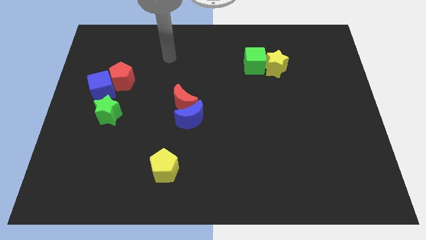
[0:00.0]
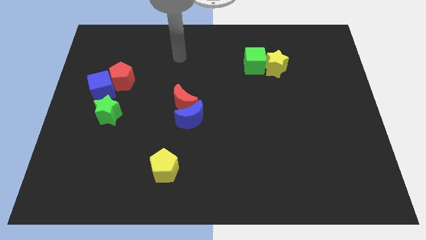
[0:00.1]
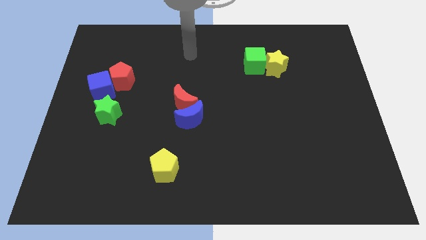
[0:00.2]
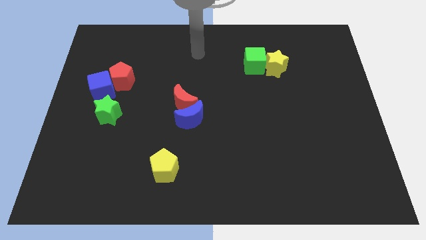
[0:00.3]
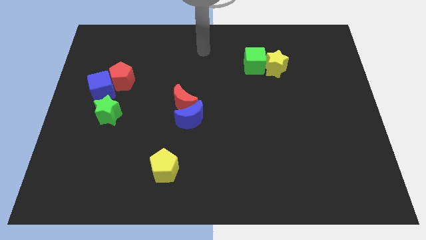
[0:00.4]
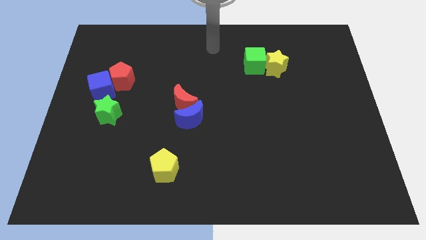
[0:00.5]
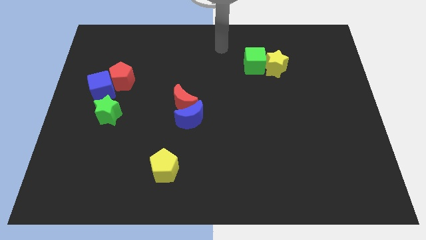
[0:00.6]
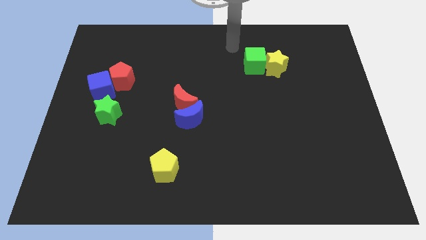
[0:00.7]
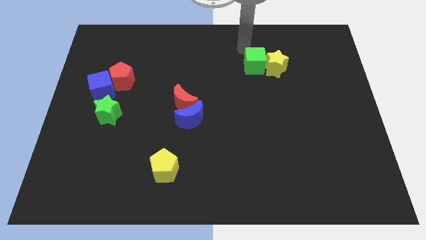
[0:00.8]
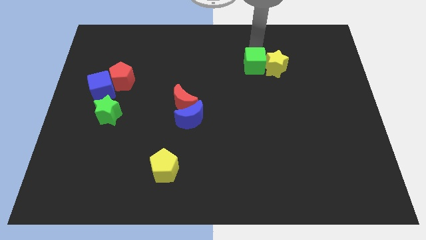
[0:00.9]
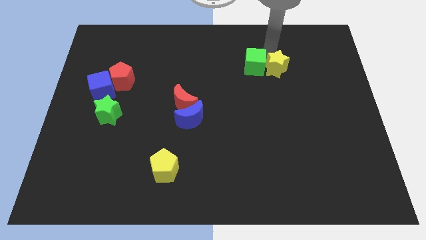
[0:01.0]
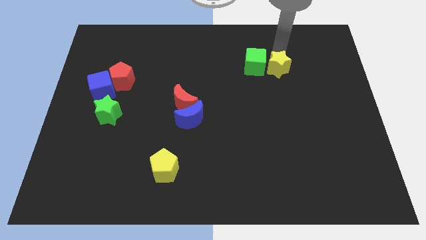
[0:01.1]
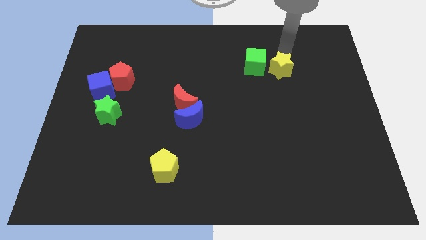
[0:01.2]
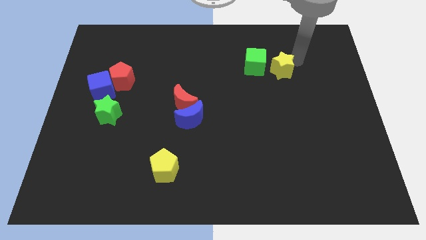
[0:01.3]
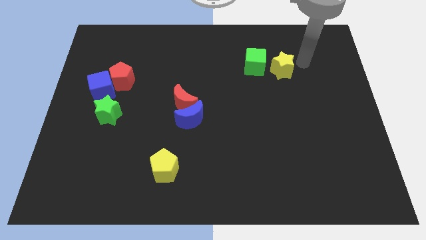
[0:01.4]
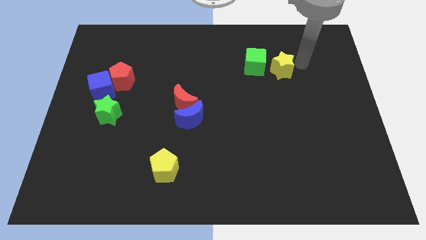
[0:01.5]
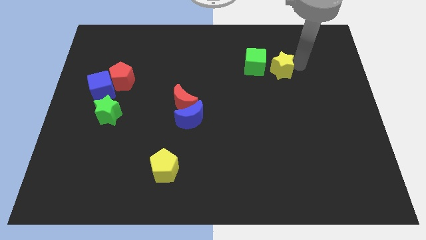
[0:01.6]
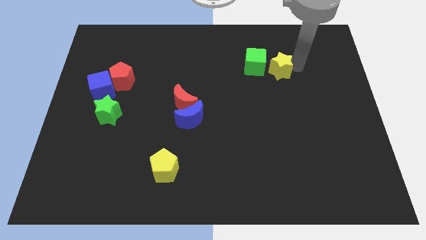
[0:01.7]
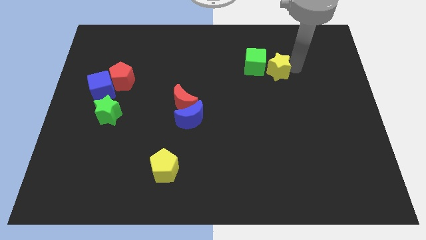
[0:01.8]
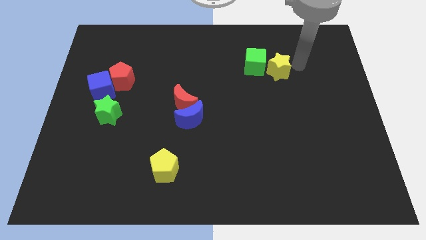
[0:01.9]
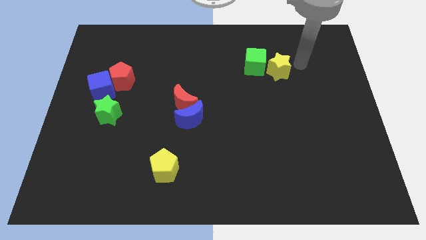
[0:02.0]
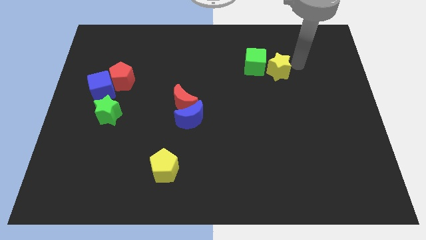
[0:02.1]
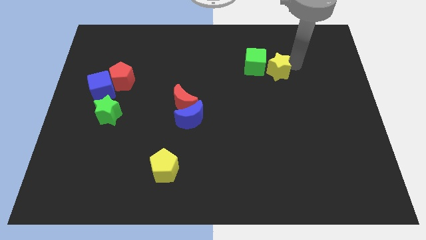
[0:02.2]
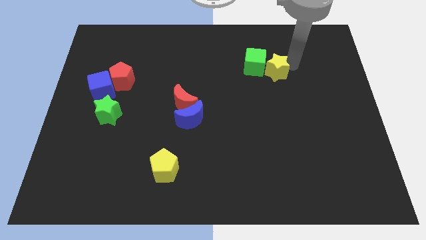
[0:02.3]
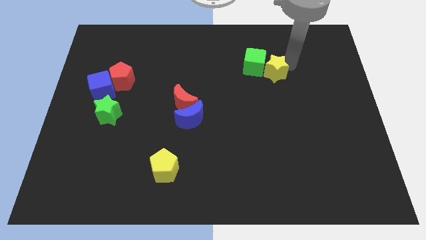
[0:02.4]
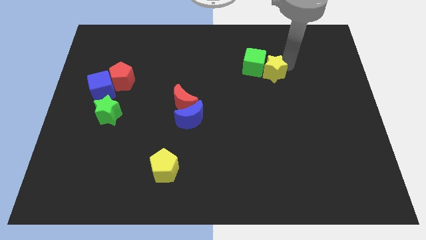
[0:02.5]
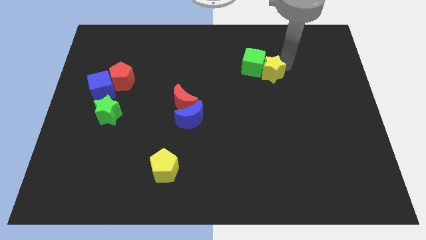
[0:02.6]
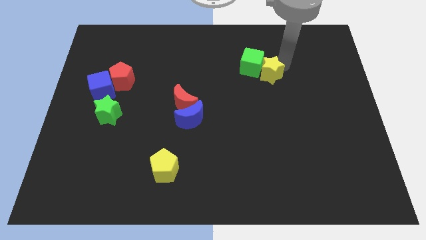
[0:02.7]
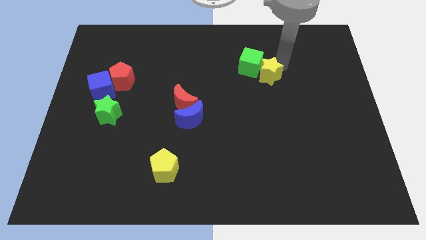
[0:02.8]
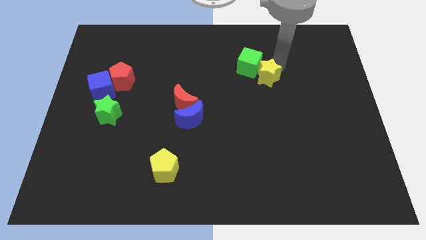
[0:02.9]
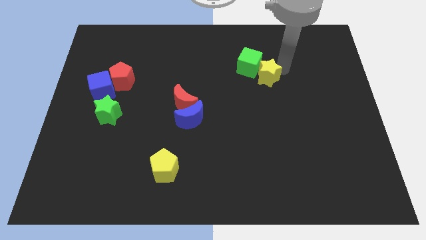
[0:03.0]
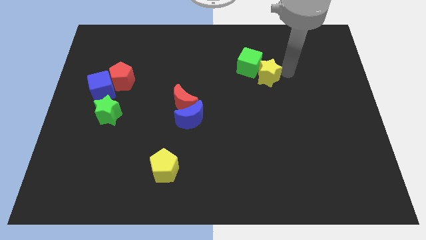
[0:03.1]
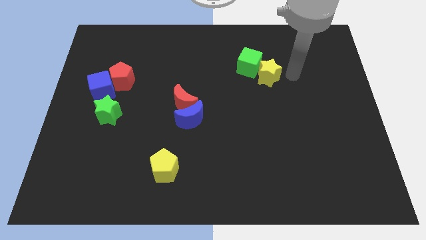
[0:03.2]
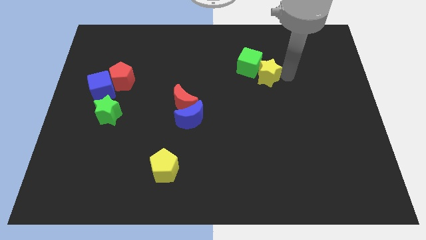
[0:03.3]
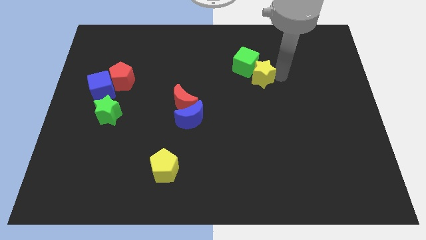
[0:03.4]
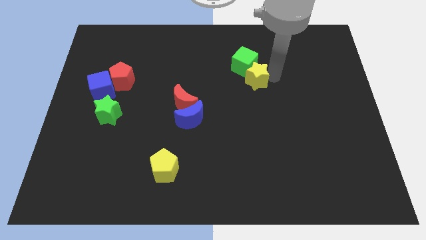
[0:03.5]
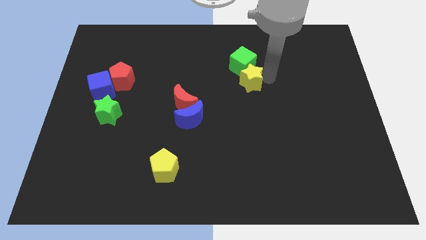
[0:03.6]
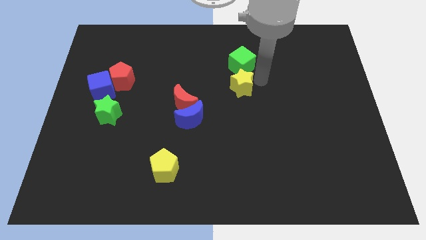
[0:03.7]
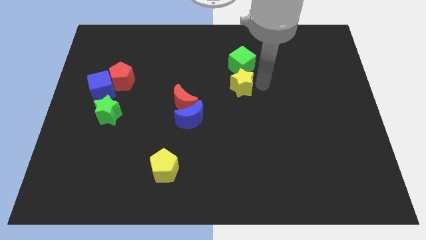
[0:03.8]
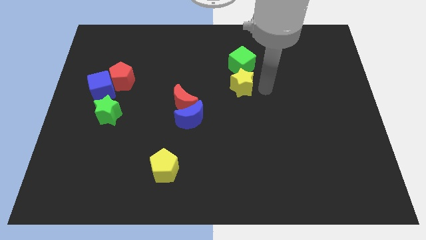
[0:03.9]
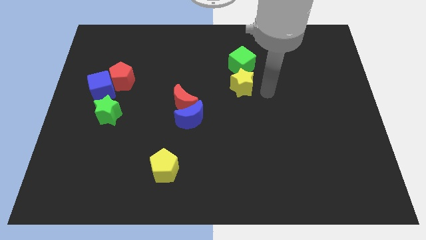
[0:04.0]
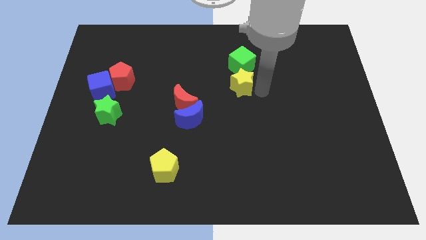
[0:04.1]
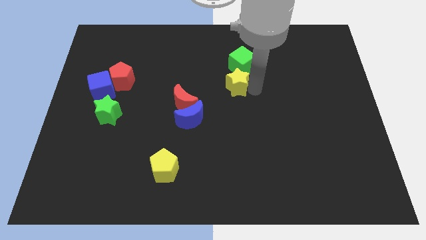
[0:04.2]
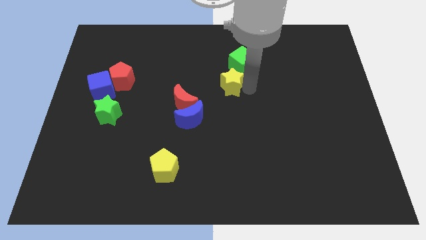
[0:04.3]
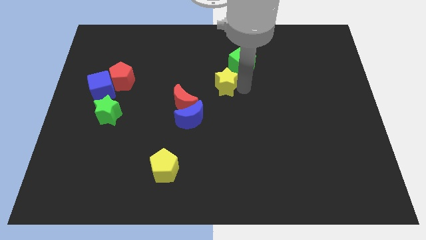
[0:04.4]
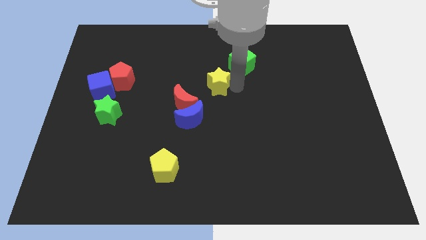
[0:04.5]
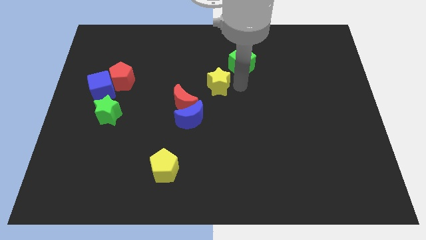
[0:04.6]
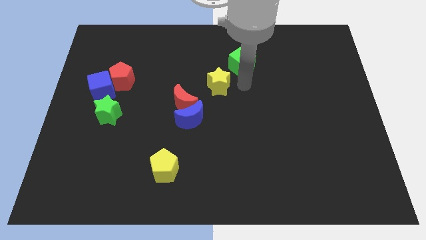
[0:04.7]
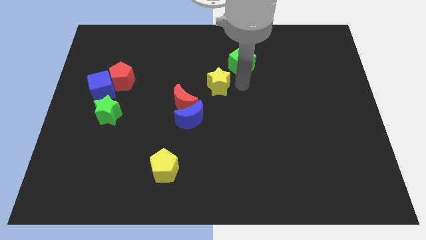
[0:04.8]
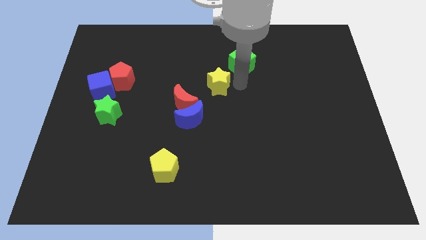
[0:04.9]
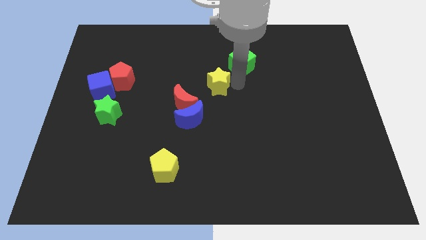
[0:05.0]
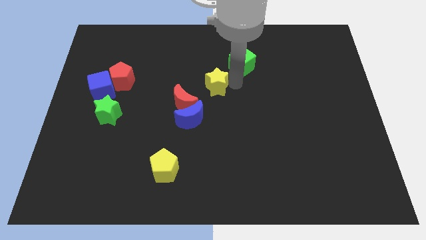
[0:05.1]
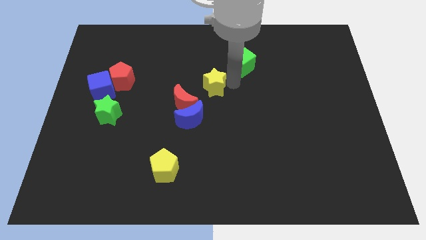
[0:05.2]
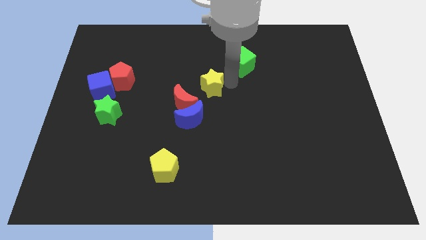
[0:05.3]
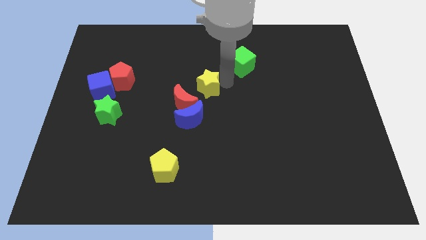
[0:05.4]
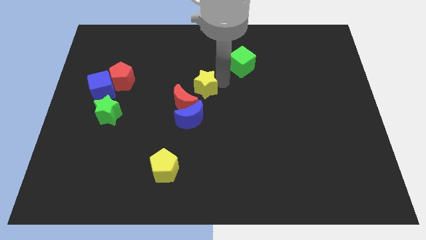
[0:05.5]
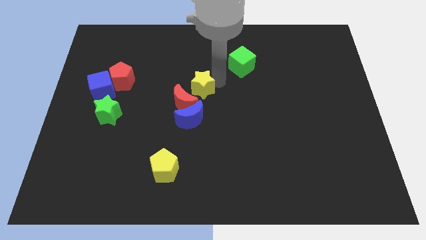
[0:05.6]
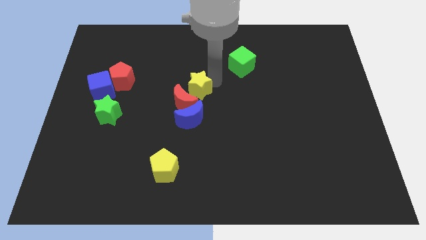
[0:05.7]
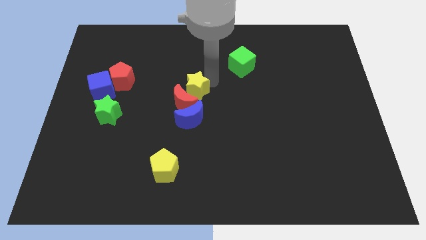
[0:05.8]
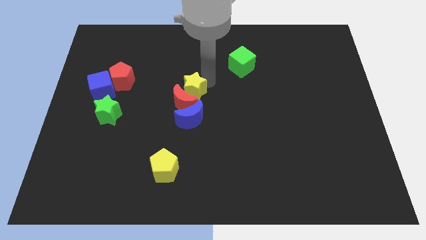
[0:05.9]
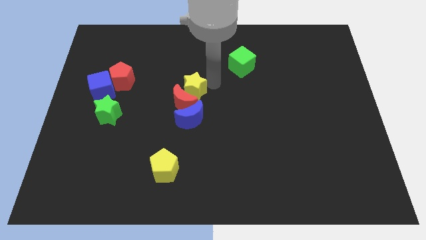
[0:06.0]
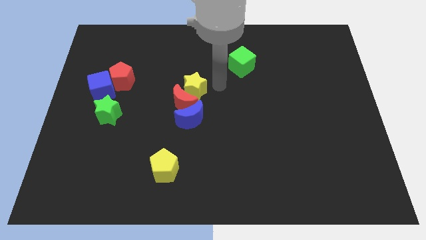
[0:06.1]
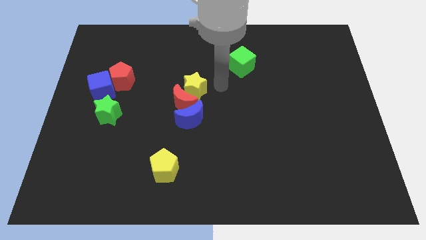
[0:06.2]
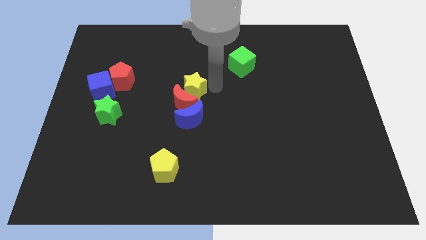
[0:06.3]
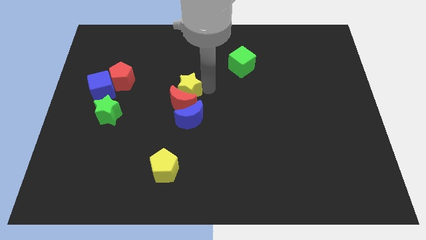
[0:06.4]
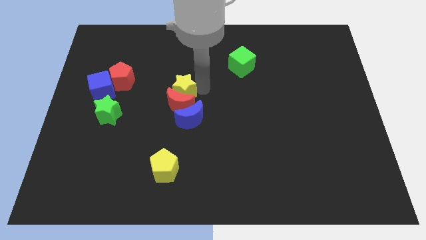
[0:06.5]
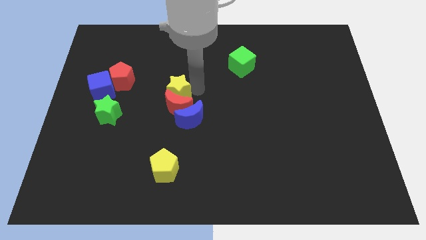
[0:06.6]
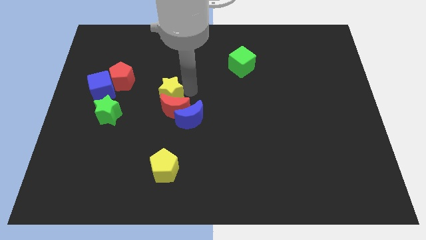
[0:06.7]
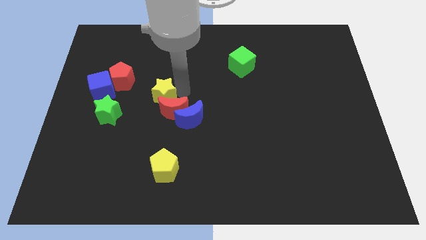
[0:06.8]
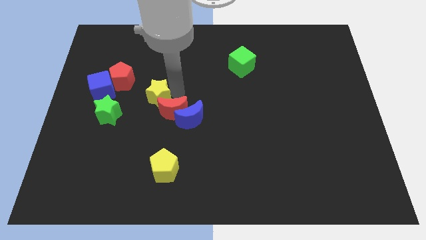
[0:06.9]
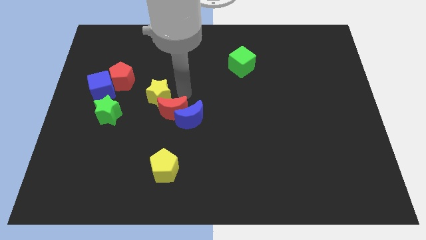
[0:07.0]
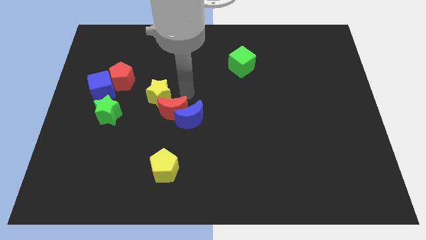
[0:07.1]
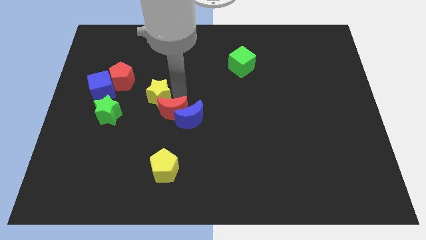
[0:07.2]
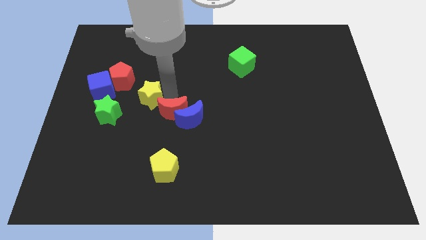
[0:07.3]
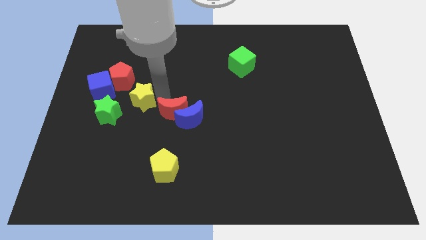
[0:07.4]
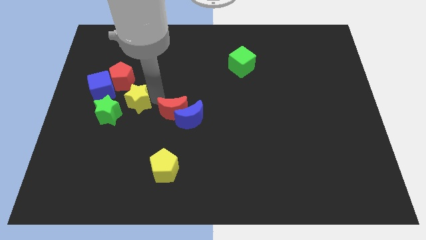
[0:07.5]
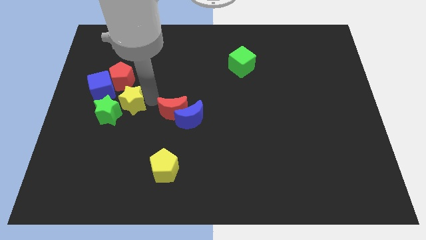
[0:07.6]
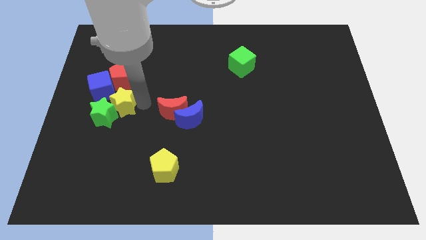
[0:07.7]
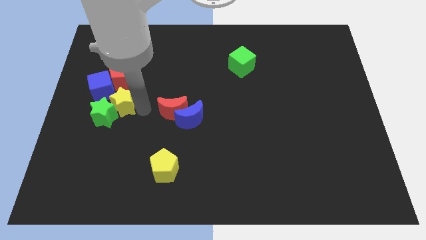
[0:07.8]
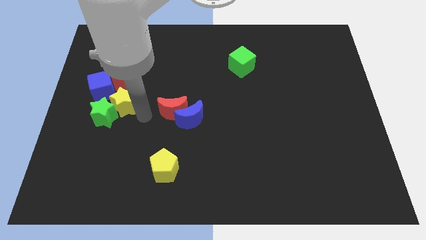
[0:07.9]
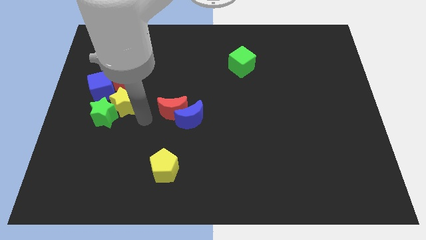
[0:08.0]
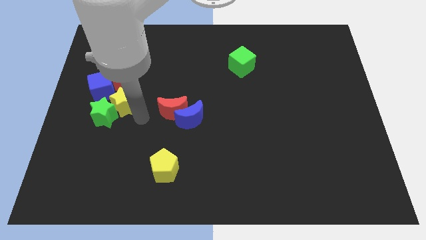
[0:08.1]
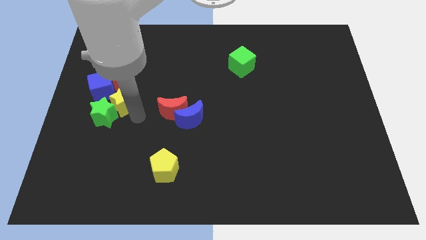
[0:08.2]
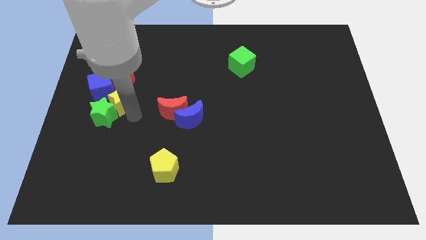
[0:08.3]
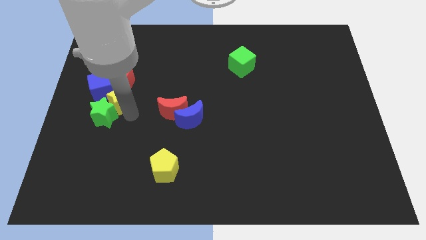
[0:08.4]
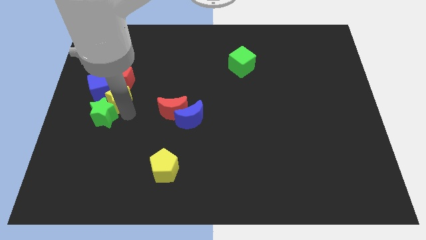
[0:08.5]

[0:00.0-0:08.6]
push the yellow star next to the blue cube
